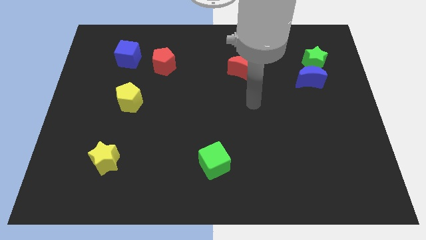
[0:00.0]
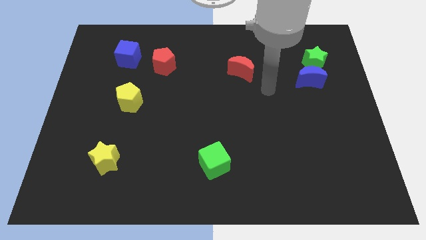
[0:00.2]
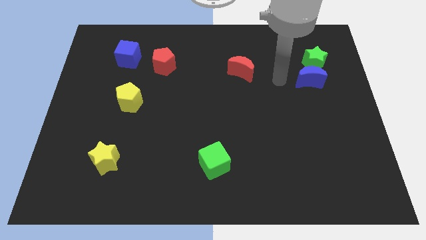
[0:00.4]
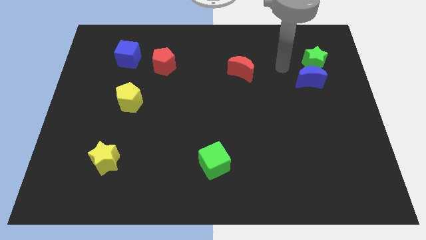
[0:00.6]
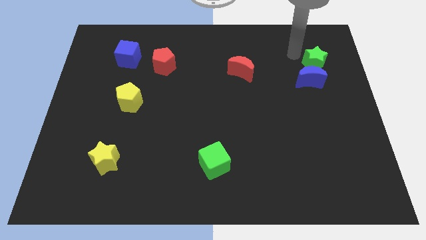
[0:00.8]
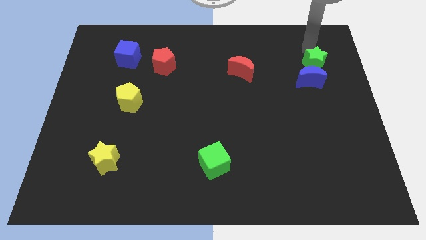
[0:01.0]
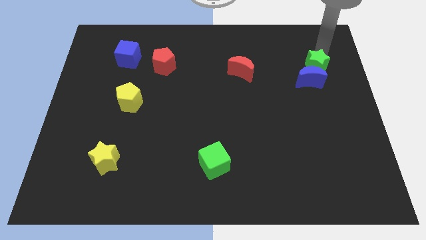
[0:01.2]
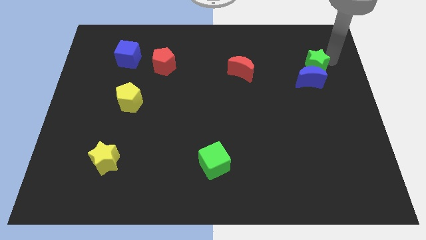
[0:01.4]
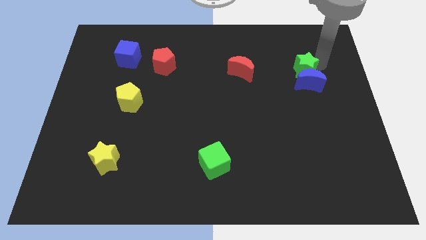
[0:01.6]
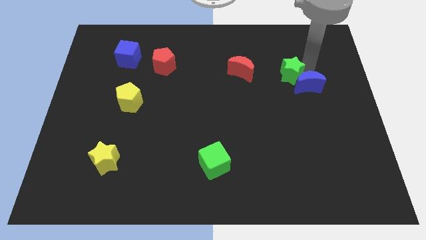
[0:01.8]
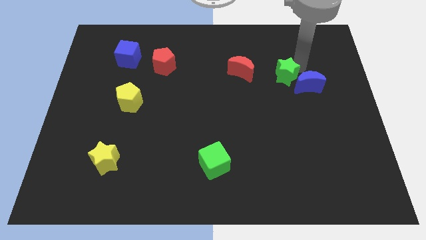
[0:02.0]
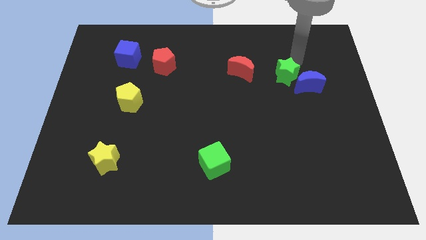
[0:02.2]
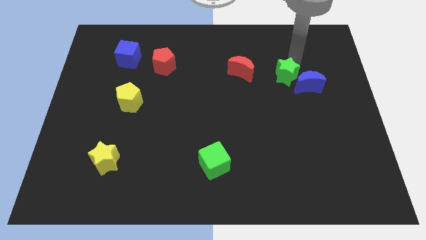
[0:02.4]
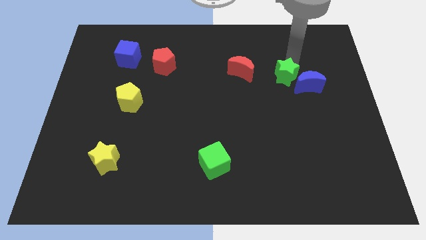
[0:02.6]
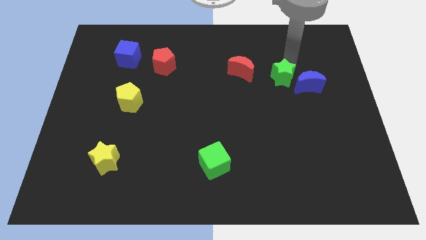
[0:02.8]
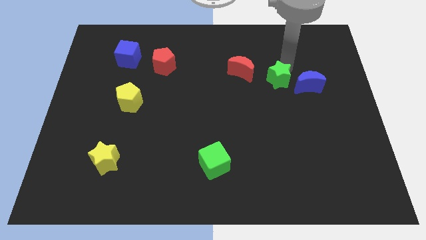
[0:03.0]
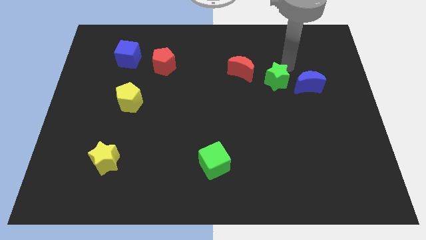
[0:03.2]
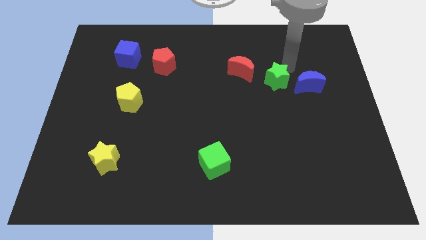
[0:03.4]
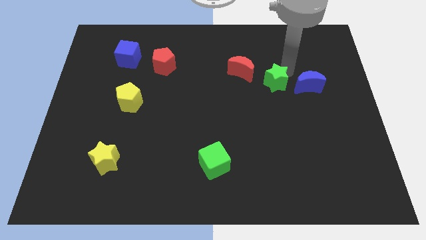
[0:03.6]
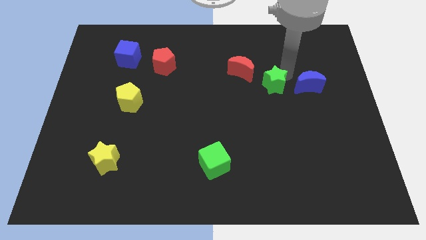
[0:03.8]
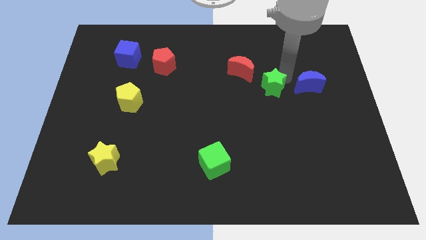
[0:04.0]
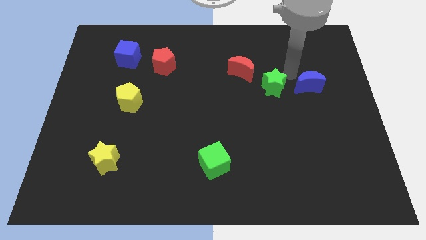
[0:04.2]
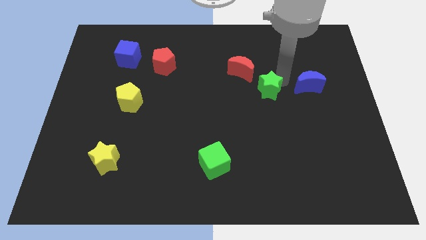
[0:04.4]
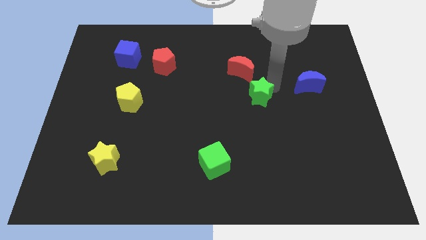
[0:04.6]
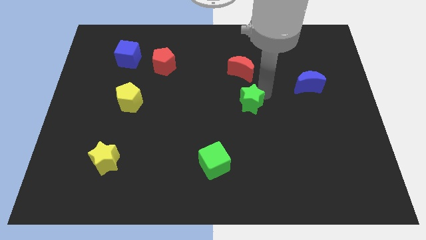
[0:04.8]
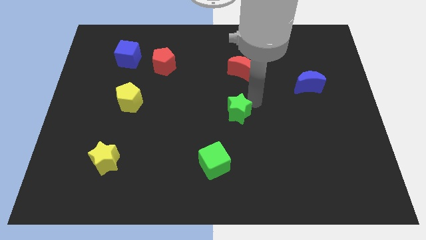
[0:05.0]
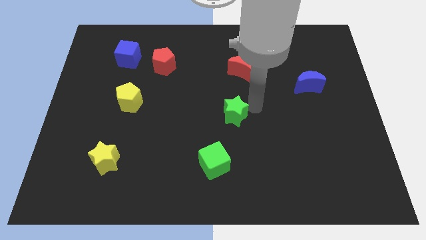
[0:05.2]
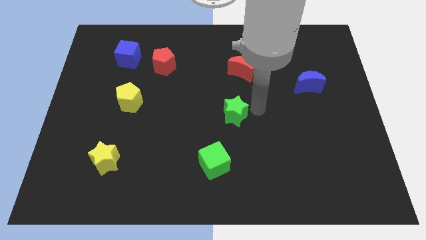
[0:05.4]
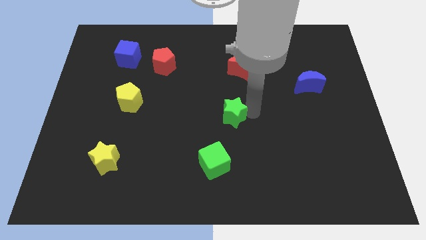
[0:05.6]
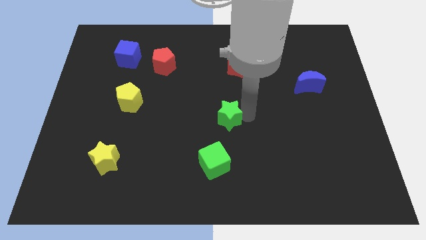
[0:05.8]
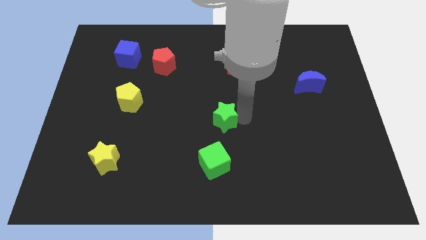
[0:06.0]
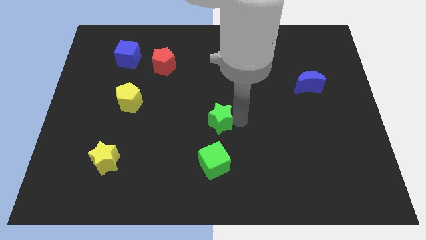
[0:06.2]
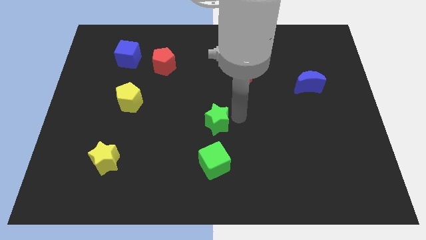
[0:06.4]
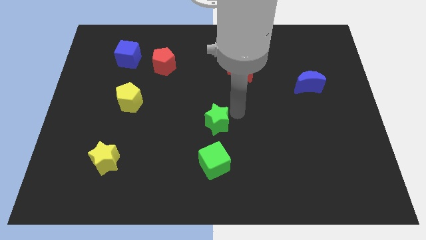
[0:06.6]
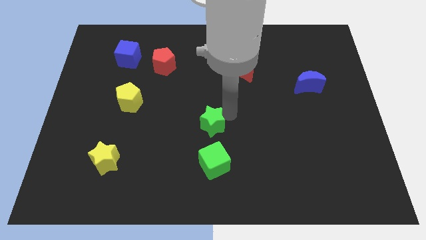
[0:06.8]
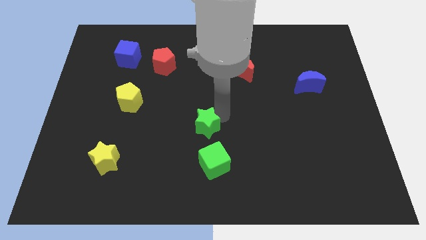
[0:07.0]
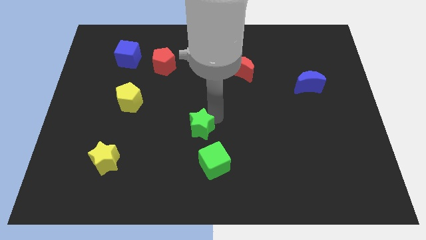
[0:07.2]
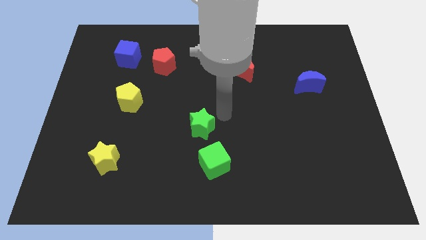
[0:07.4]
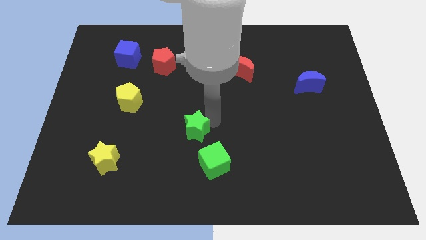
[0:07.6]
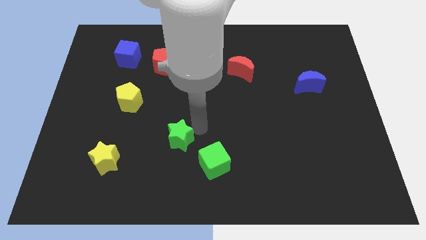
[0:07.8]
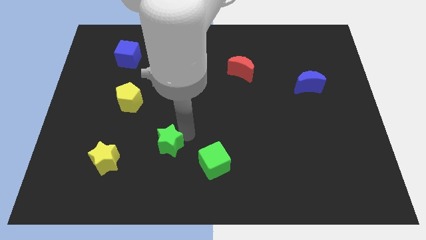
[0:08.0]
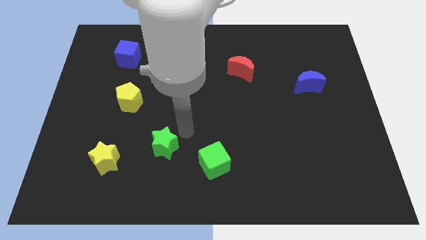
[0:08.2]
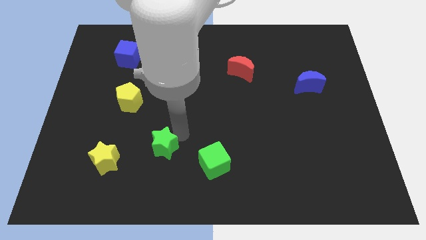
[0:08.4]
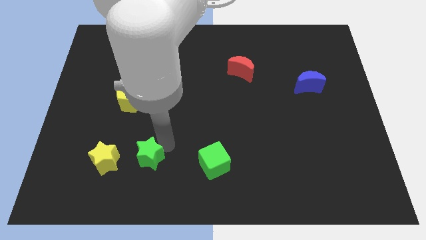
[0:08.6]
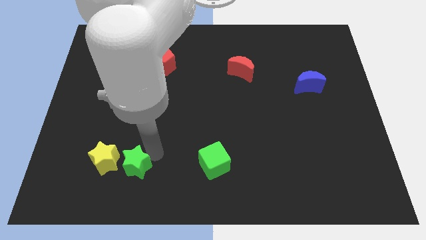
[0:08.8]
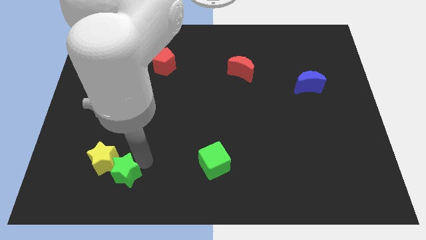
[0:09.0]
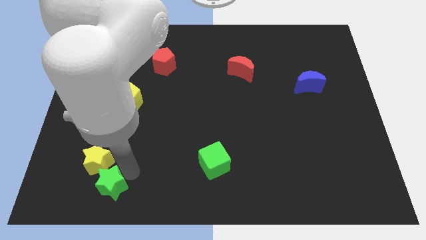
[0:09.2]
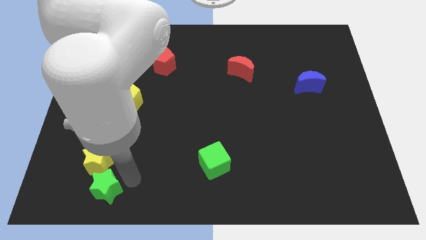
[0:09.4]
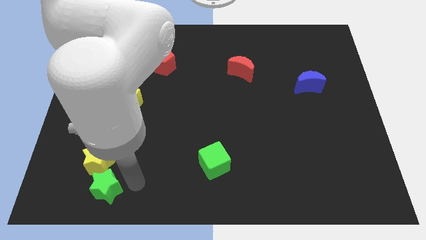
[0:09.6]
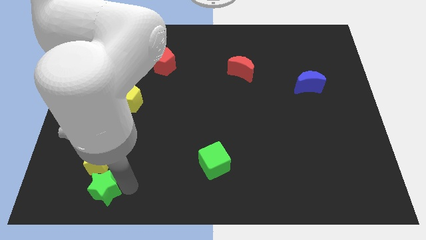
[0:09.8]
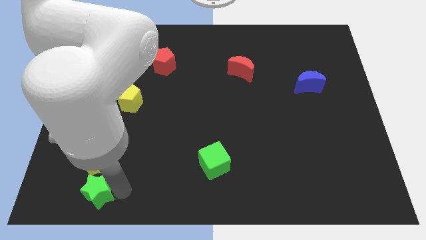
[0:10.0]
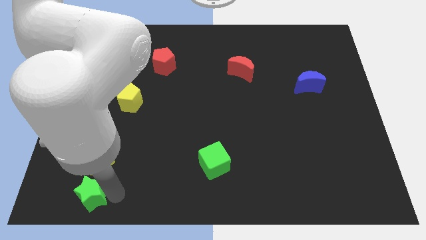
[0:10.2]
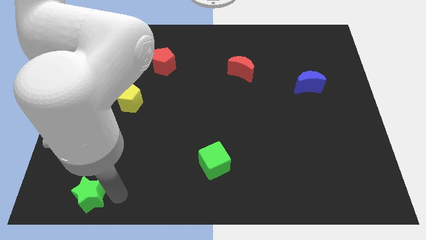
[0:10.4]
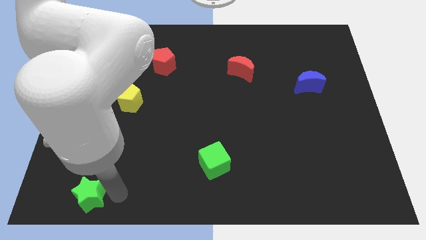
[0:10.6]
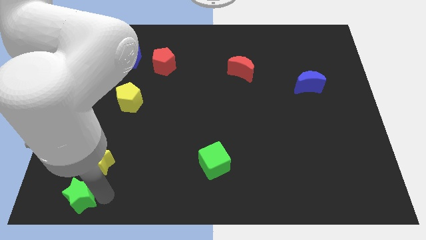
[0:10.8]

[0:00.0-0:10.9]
move the green star to the bottom left corner

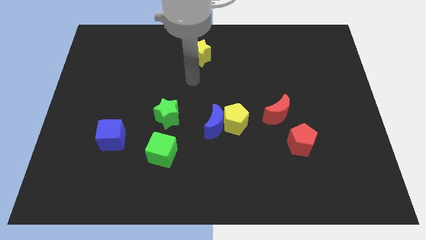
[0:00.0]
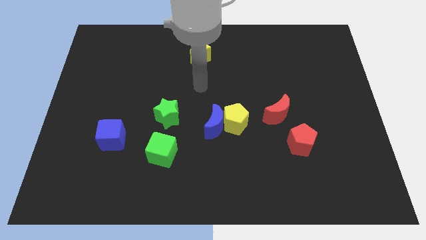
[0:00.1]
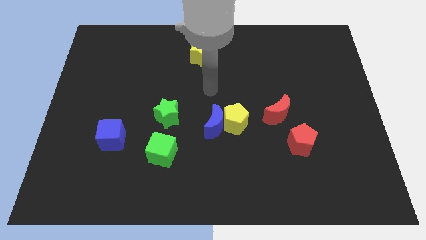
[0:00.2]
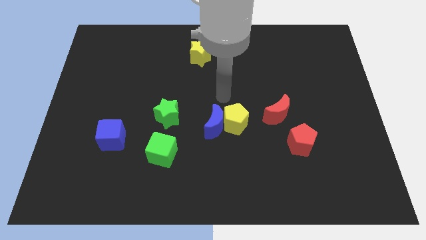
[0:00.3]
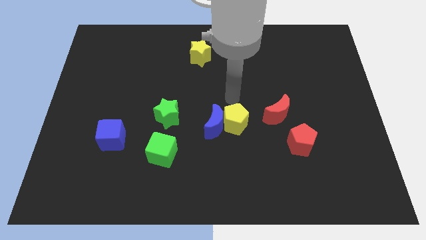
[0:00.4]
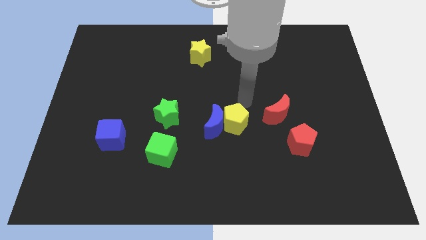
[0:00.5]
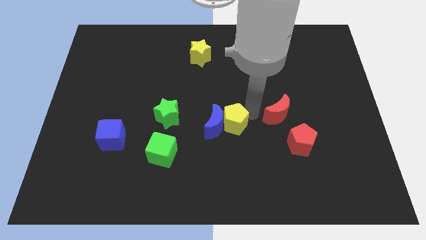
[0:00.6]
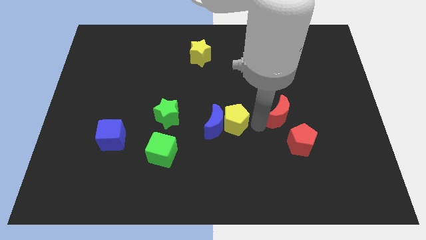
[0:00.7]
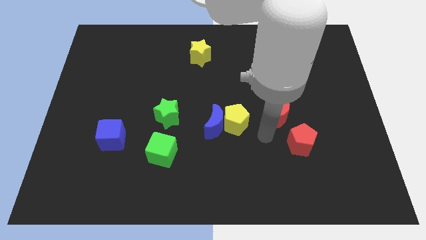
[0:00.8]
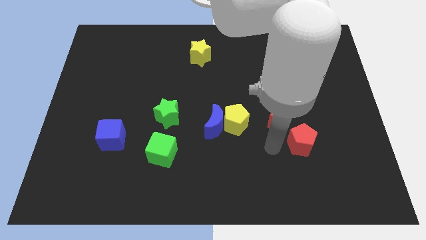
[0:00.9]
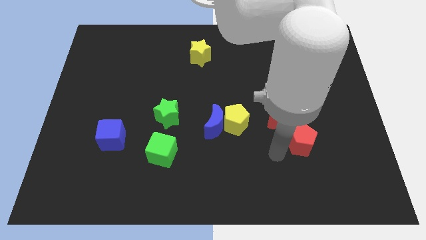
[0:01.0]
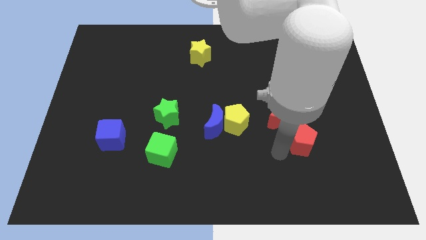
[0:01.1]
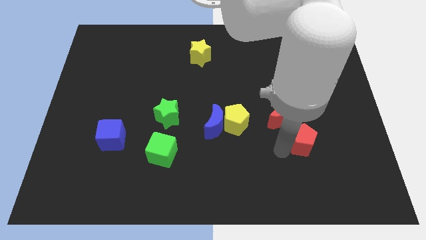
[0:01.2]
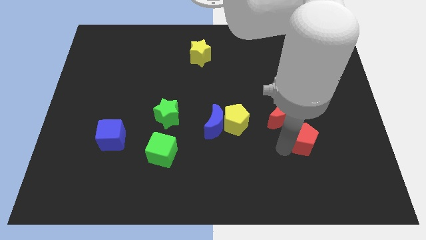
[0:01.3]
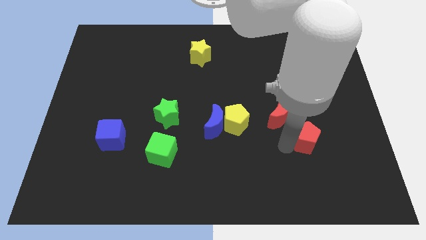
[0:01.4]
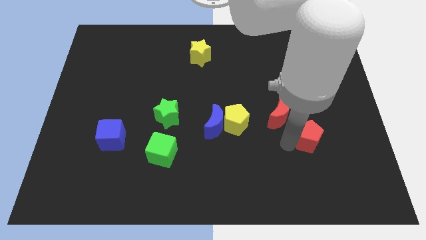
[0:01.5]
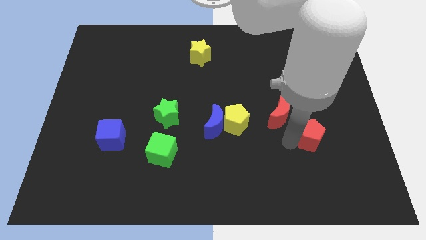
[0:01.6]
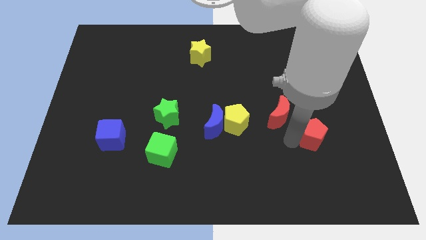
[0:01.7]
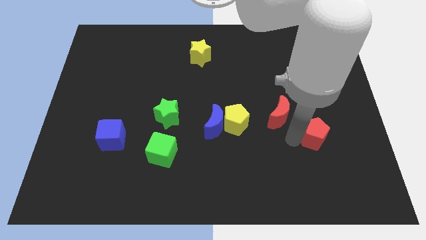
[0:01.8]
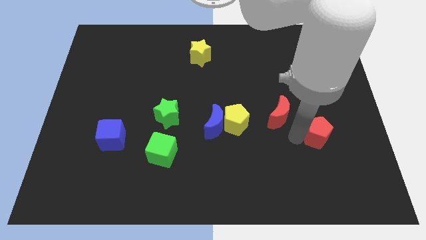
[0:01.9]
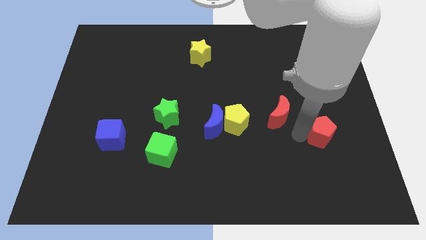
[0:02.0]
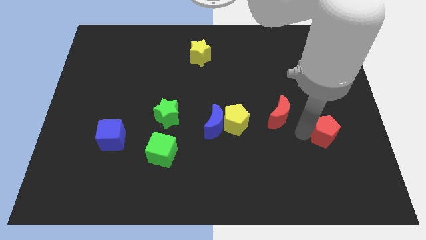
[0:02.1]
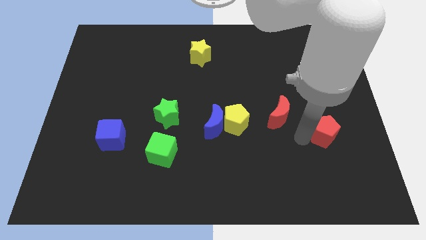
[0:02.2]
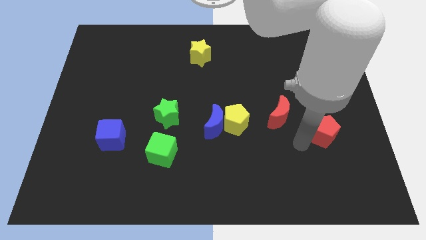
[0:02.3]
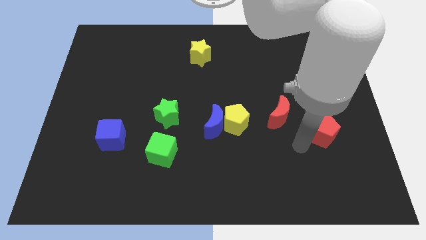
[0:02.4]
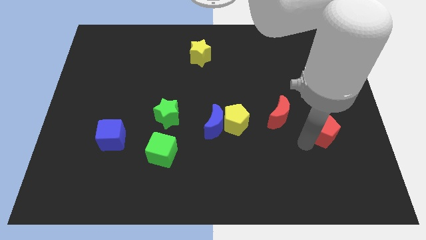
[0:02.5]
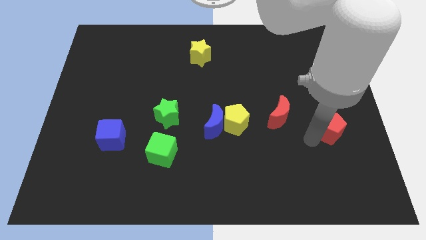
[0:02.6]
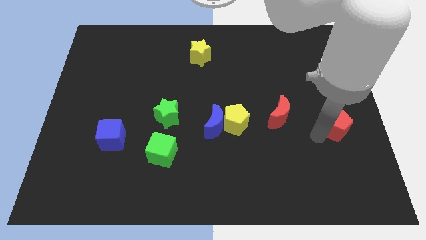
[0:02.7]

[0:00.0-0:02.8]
put the red pentagon to the center right
